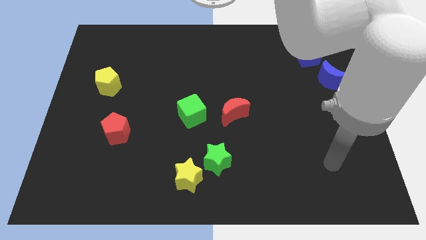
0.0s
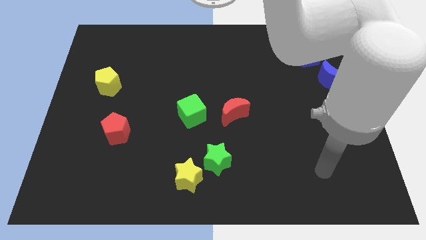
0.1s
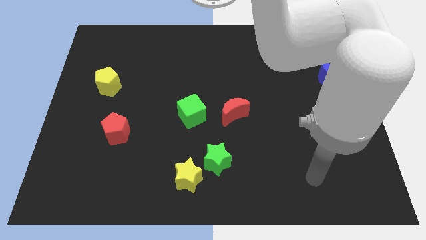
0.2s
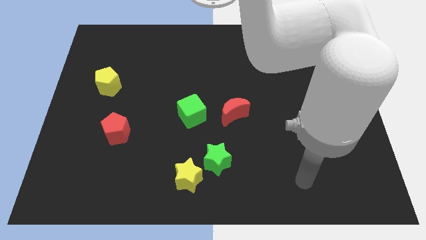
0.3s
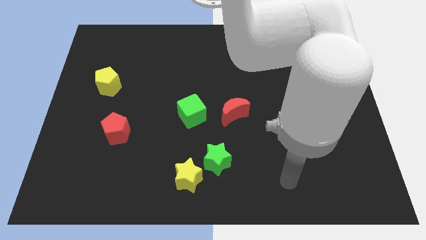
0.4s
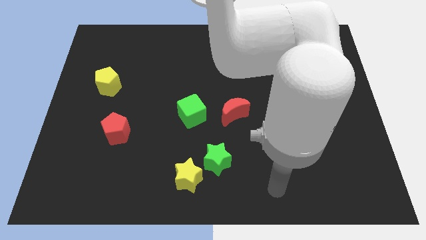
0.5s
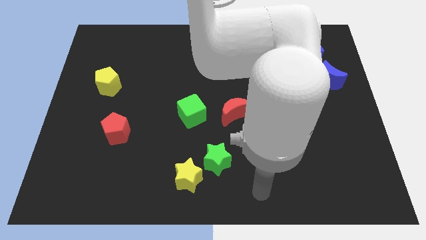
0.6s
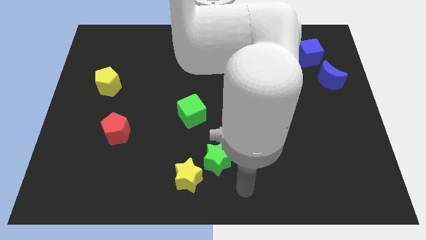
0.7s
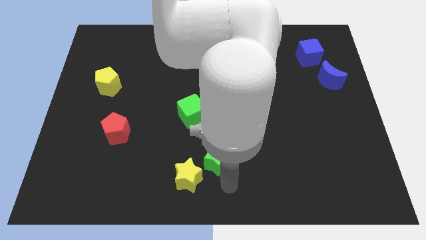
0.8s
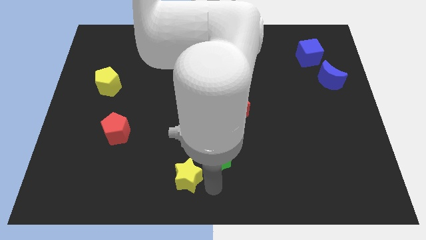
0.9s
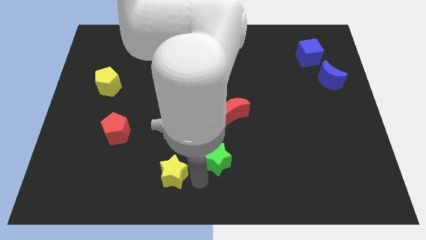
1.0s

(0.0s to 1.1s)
move the green star away from the yellow star

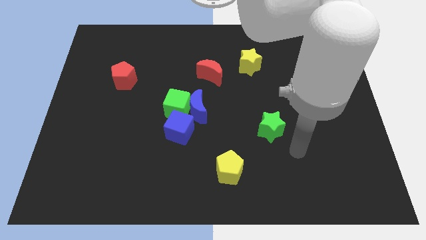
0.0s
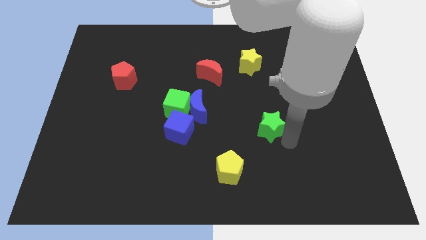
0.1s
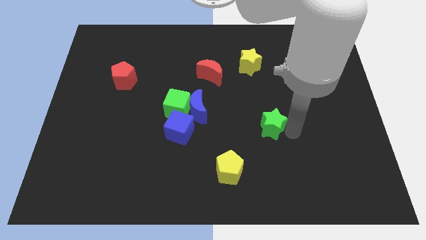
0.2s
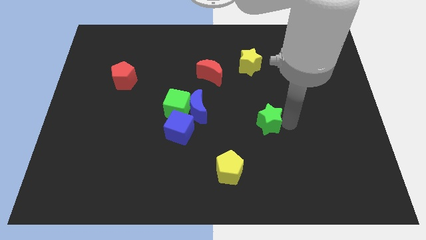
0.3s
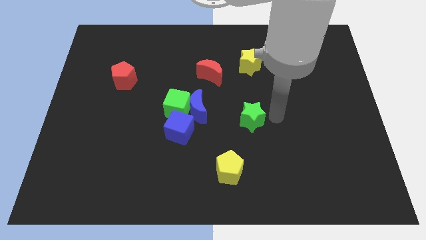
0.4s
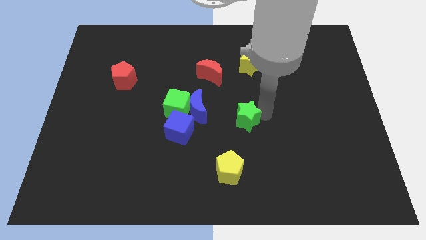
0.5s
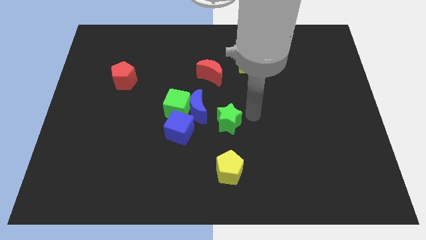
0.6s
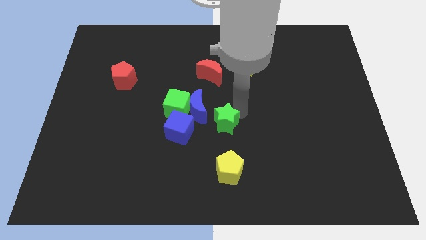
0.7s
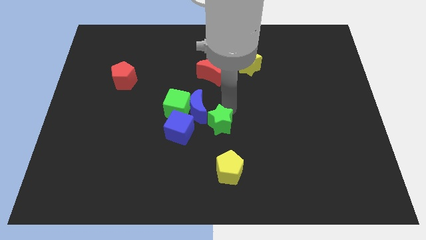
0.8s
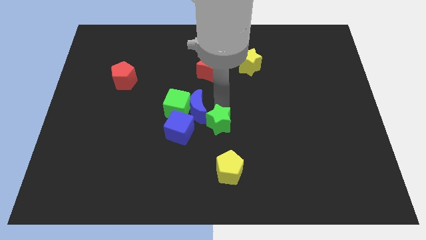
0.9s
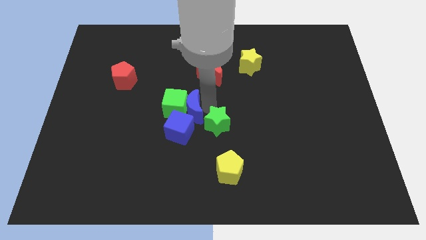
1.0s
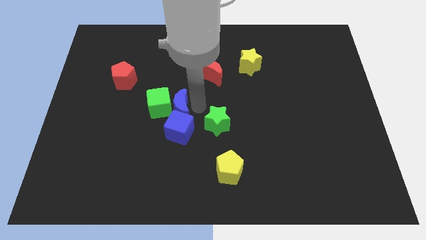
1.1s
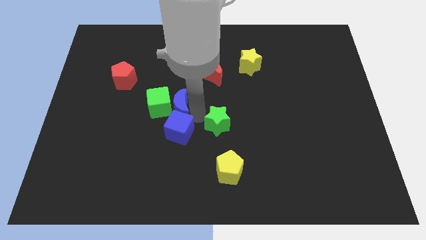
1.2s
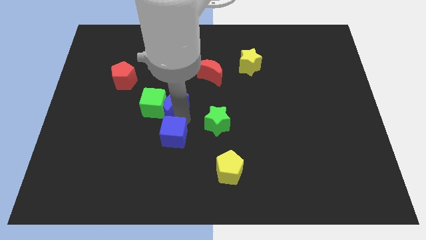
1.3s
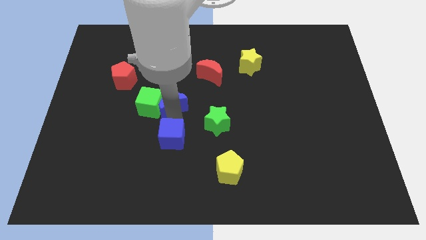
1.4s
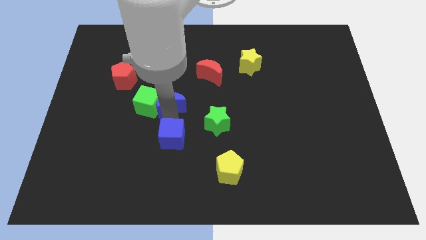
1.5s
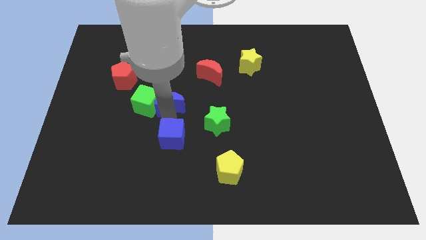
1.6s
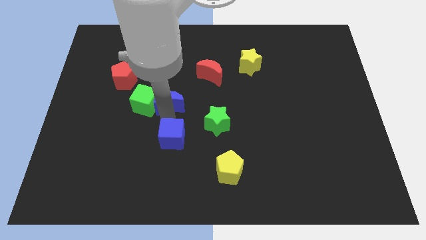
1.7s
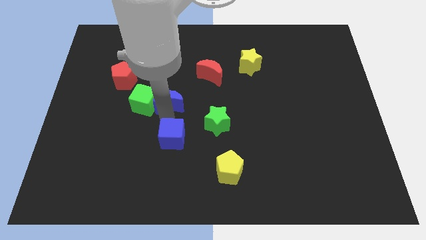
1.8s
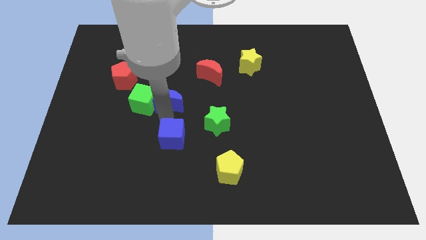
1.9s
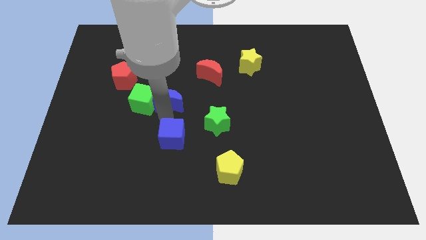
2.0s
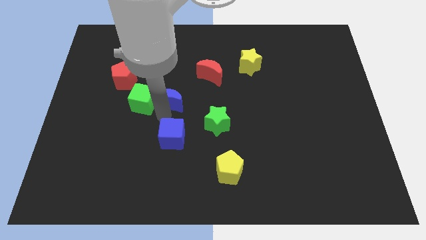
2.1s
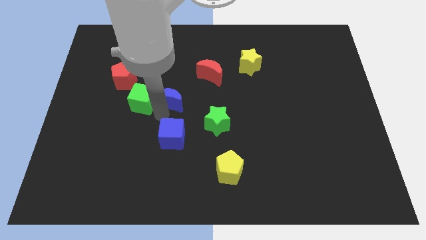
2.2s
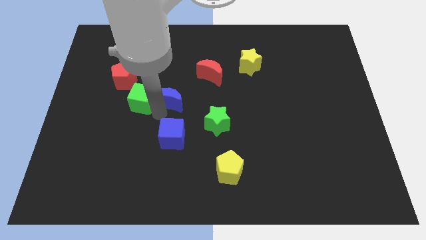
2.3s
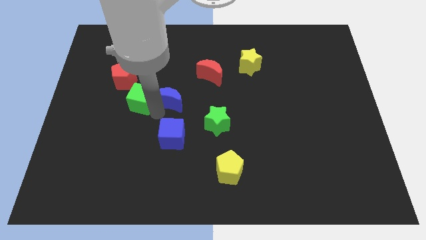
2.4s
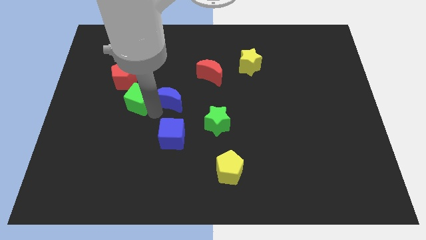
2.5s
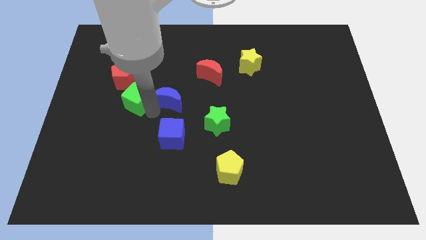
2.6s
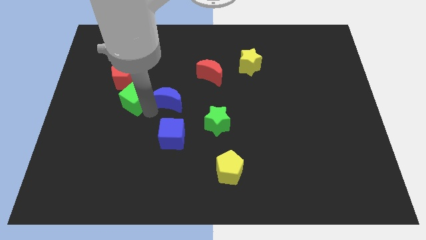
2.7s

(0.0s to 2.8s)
move the green cube away from the blue moon and blue cube

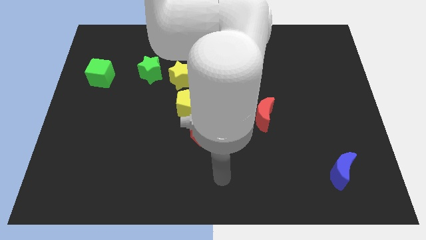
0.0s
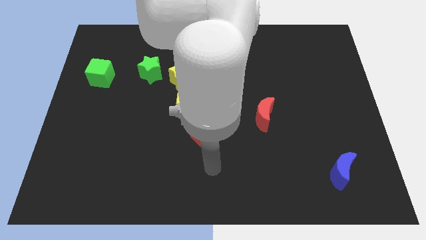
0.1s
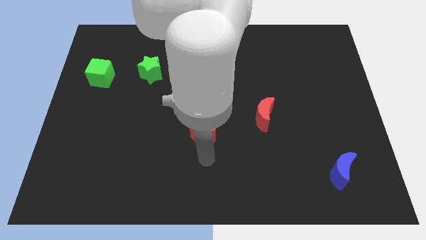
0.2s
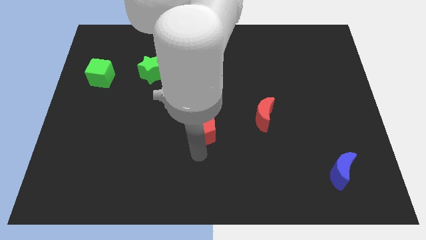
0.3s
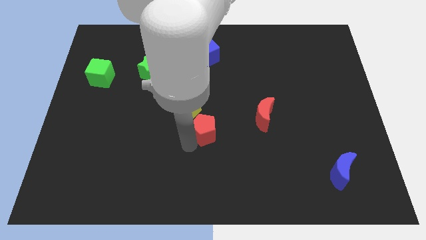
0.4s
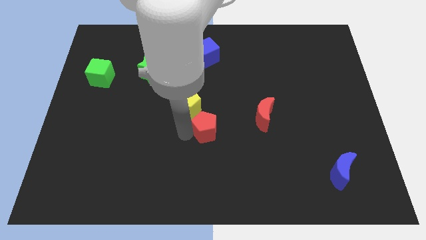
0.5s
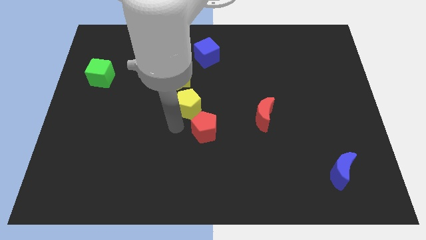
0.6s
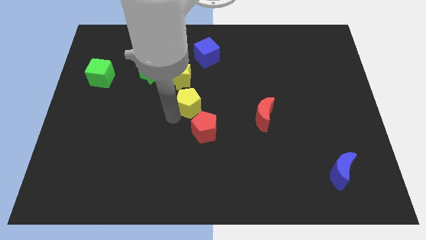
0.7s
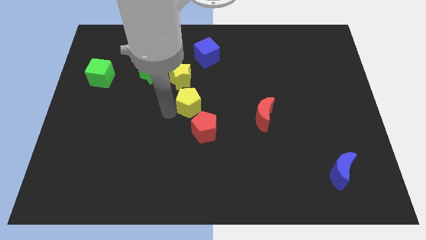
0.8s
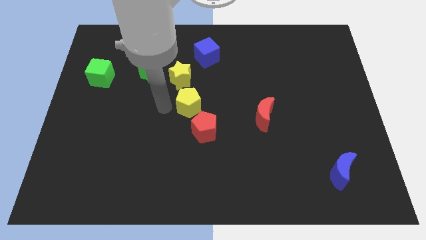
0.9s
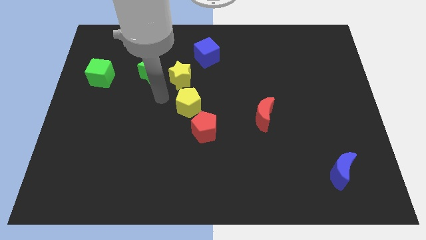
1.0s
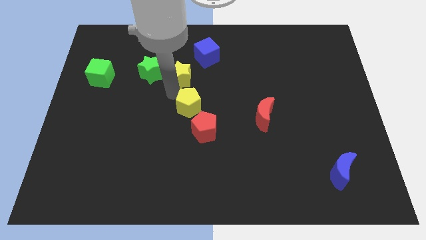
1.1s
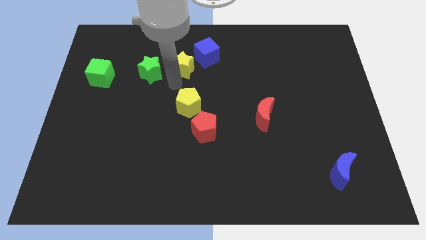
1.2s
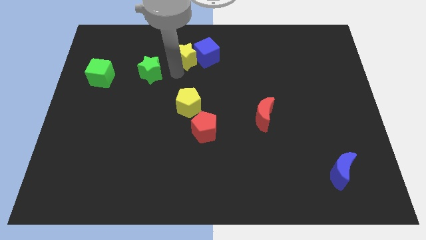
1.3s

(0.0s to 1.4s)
pull the green star apart from the yellow star

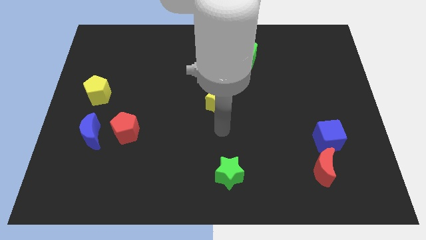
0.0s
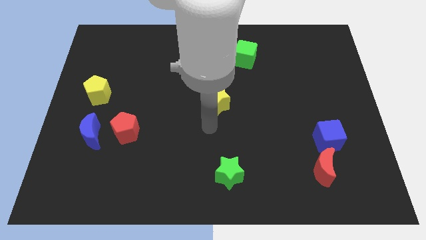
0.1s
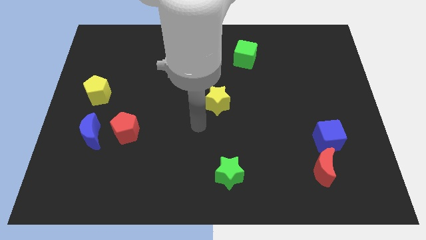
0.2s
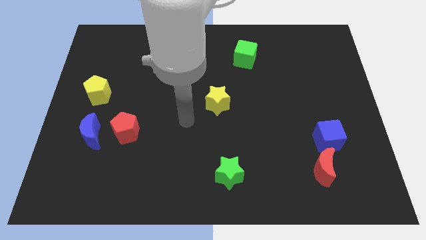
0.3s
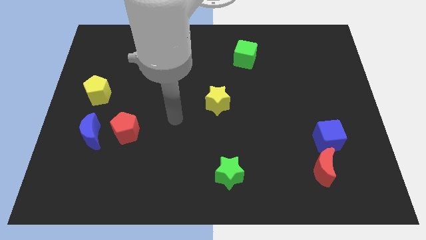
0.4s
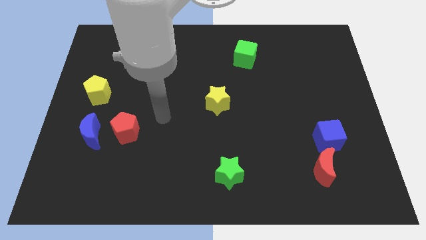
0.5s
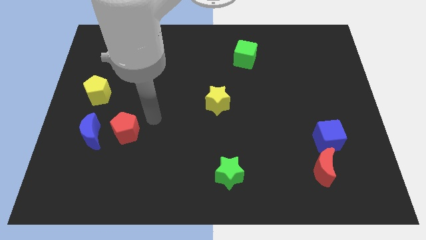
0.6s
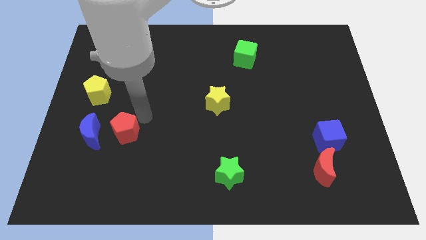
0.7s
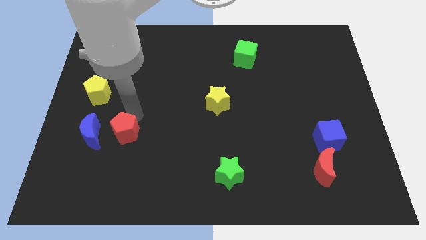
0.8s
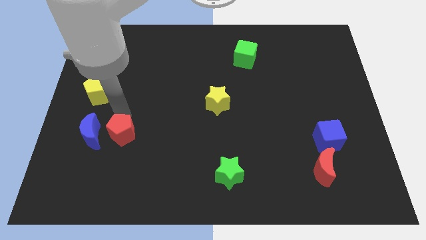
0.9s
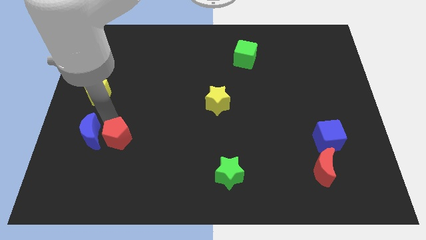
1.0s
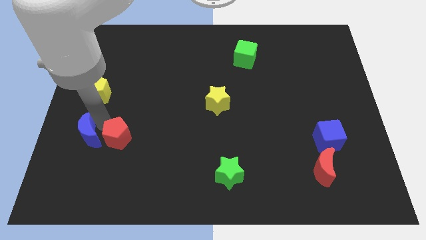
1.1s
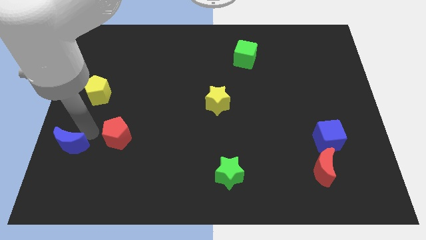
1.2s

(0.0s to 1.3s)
pull the red pentagon apart from the blue moon

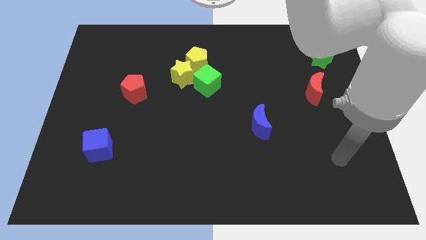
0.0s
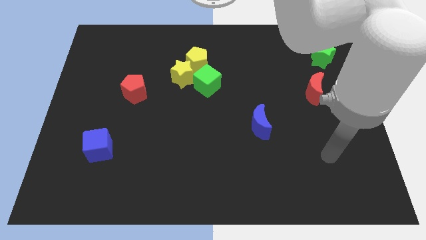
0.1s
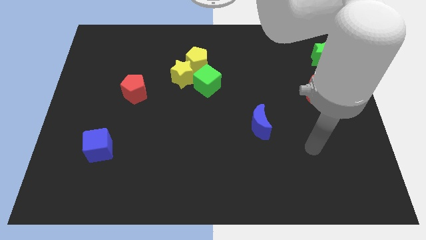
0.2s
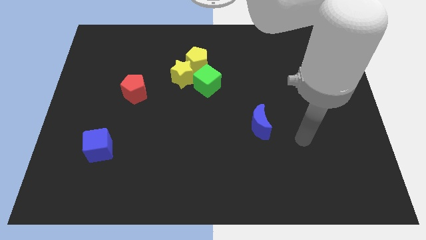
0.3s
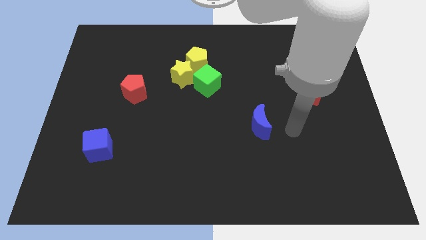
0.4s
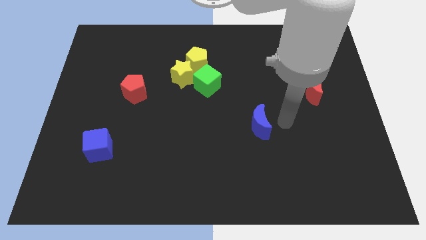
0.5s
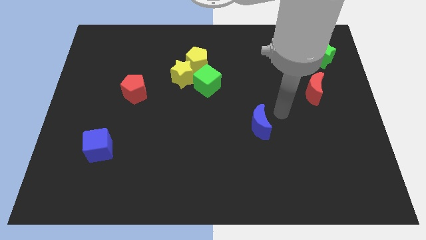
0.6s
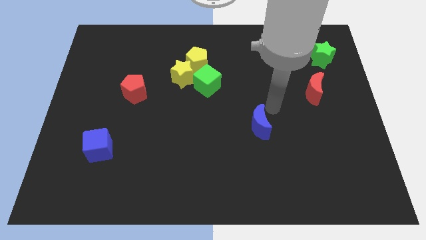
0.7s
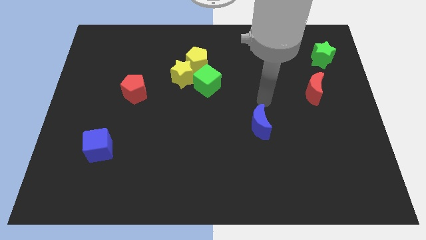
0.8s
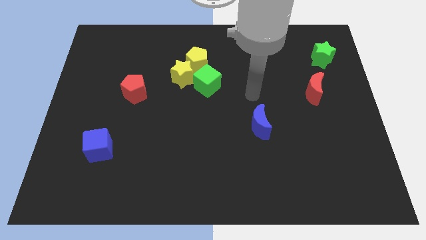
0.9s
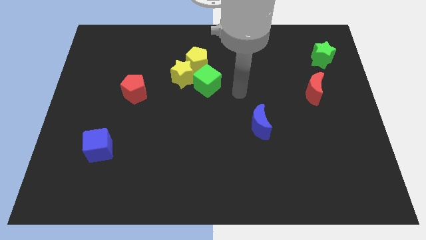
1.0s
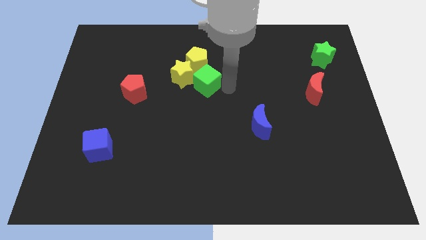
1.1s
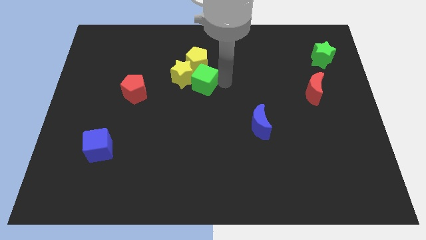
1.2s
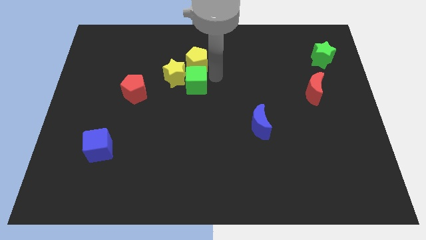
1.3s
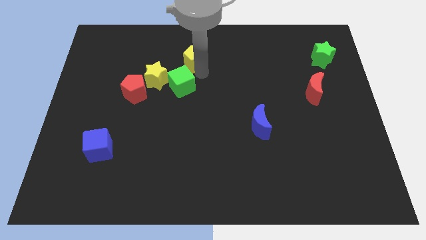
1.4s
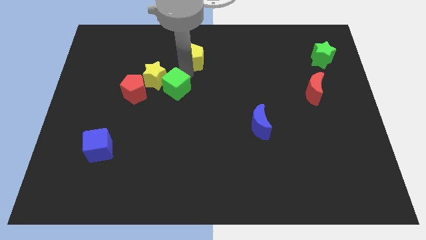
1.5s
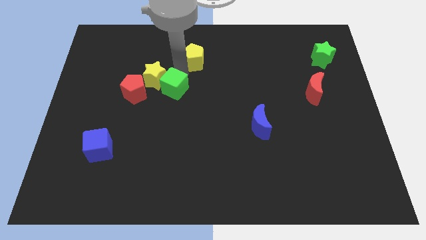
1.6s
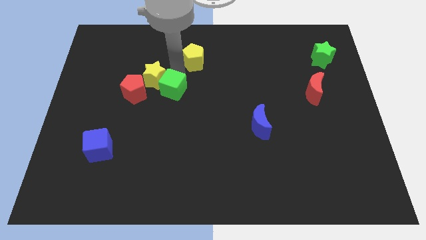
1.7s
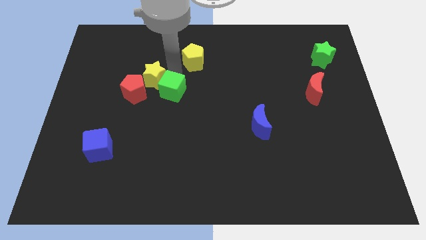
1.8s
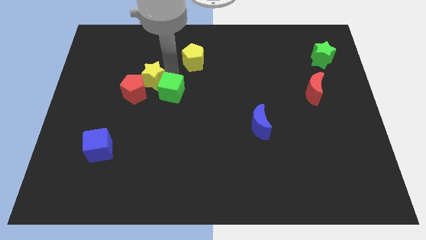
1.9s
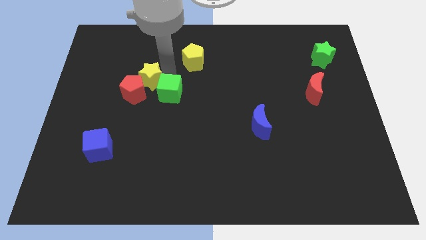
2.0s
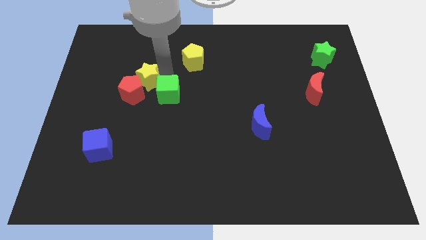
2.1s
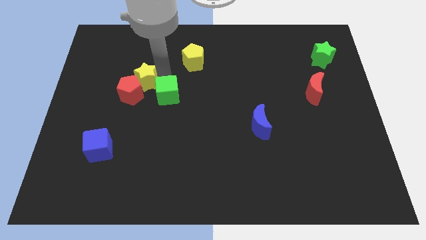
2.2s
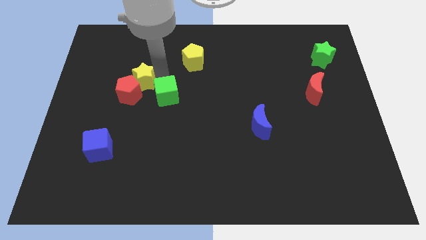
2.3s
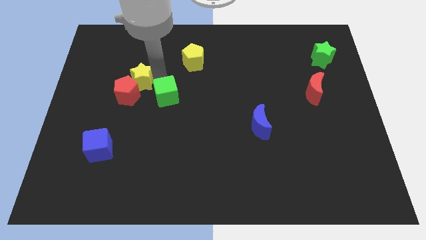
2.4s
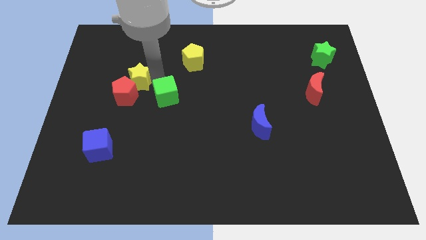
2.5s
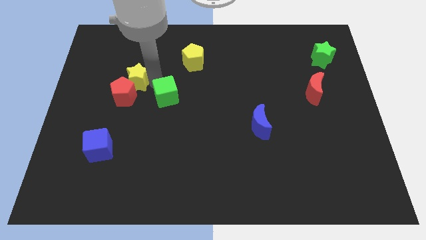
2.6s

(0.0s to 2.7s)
separate the yellow star from the yellow pentagon and green cube
